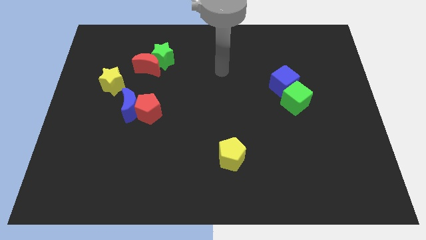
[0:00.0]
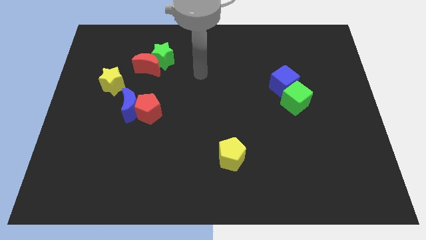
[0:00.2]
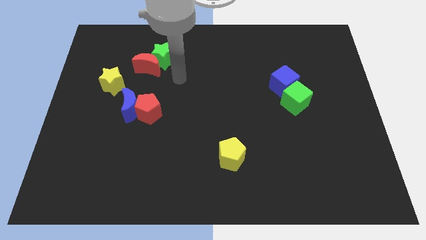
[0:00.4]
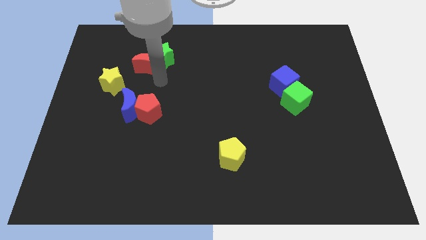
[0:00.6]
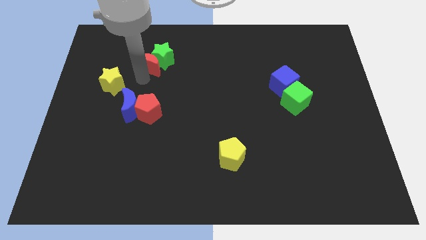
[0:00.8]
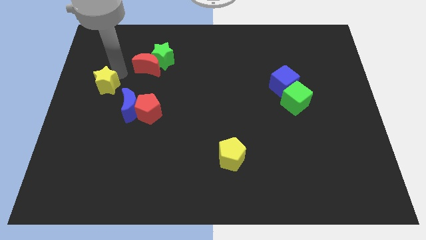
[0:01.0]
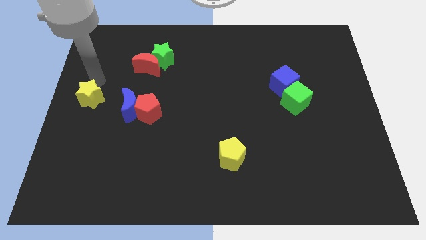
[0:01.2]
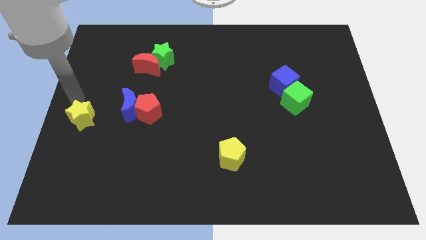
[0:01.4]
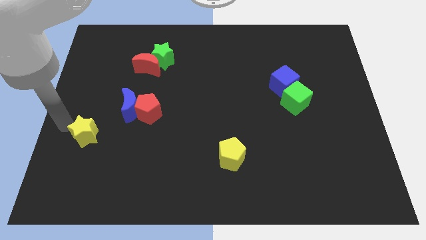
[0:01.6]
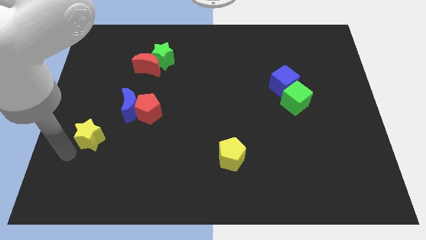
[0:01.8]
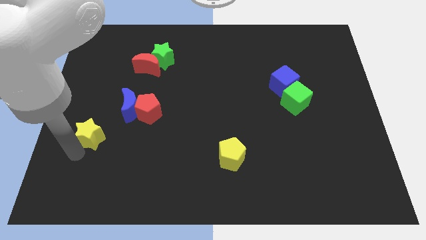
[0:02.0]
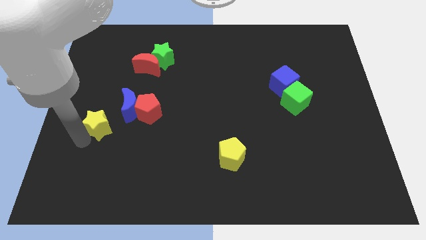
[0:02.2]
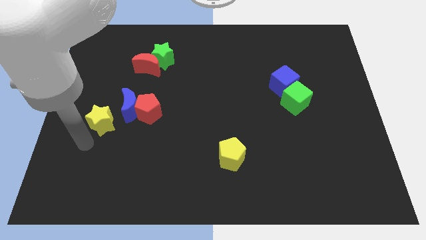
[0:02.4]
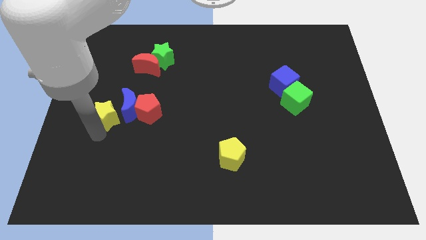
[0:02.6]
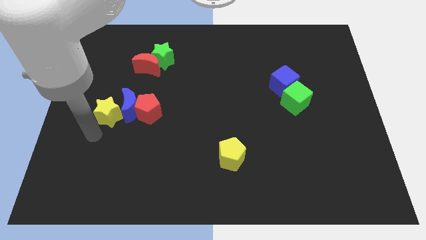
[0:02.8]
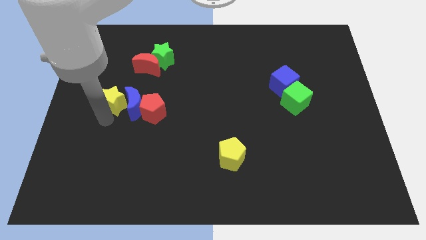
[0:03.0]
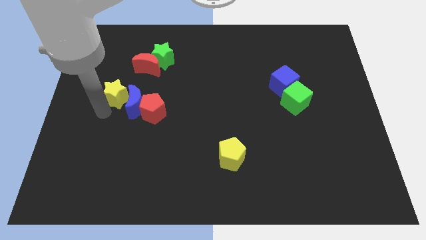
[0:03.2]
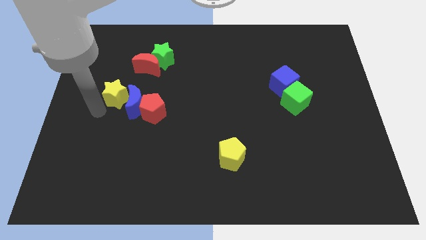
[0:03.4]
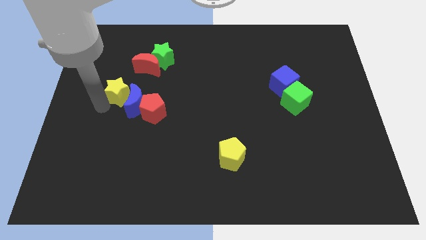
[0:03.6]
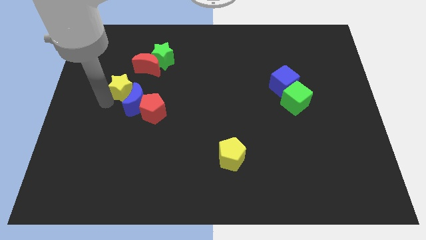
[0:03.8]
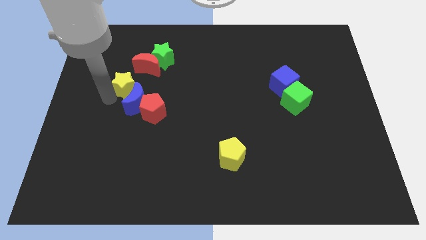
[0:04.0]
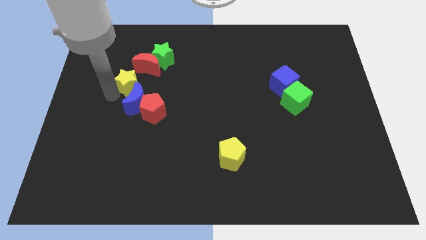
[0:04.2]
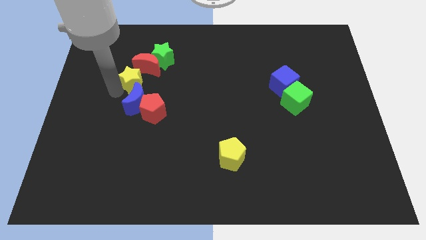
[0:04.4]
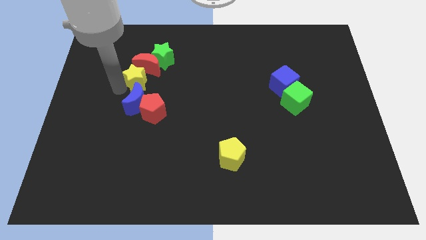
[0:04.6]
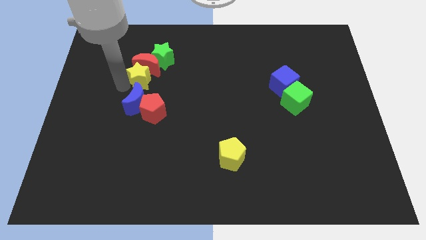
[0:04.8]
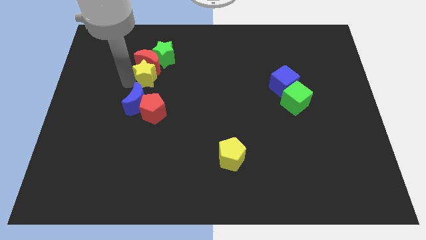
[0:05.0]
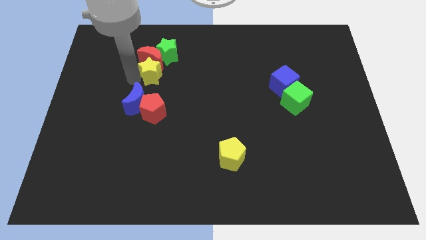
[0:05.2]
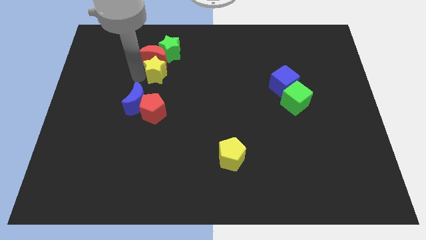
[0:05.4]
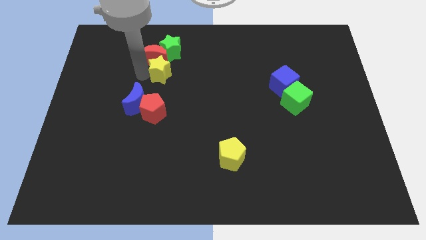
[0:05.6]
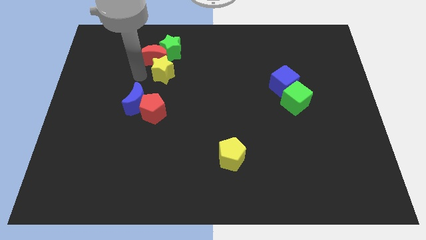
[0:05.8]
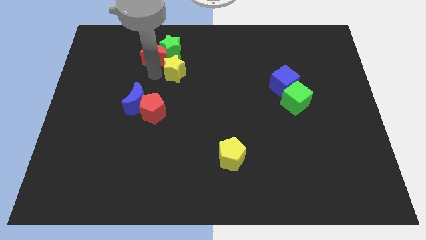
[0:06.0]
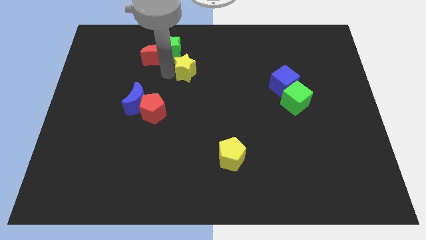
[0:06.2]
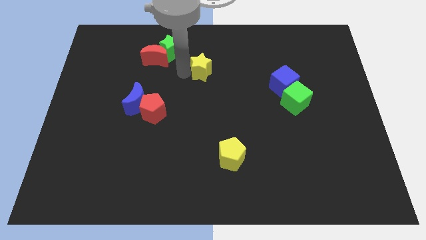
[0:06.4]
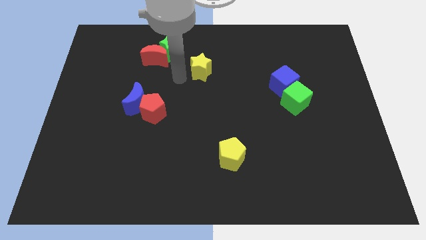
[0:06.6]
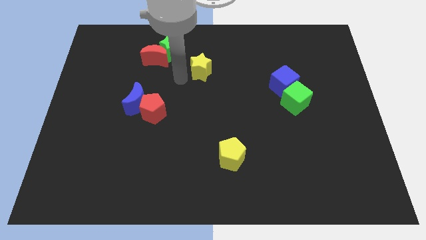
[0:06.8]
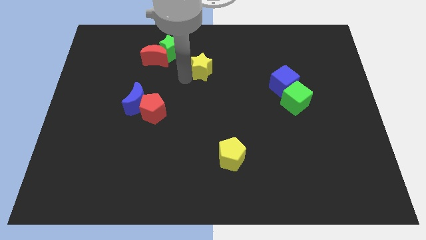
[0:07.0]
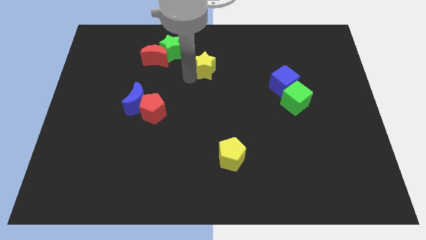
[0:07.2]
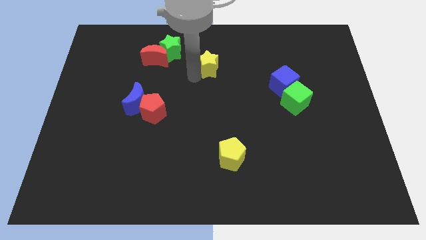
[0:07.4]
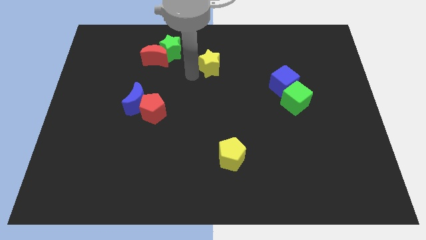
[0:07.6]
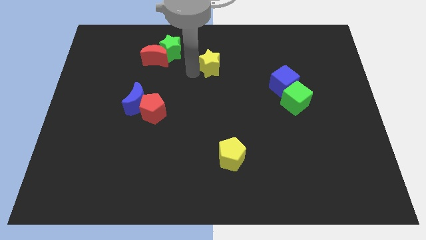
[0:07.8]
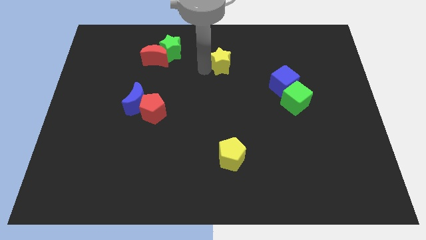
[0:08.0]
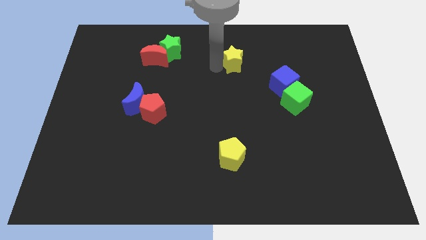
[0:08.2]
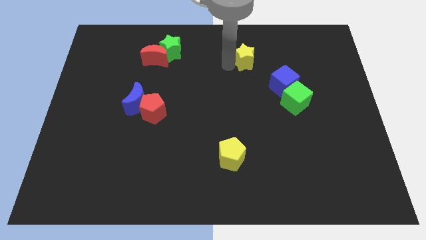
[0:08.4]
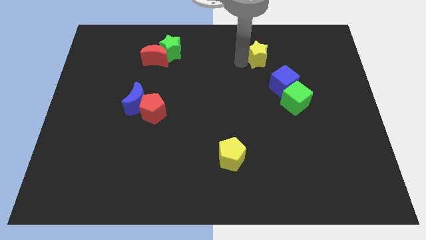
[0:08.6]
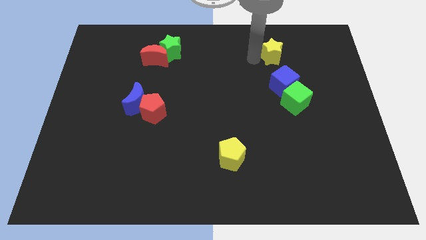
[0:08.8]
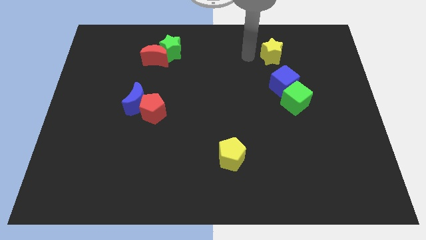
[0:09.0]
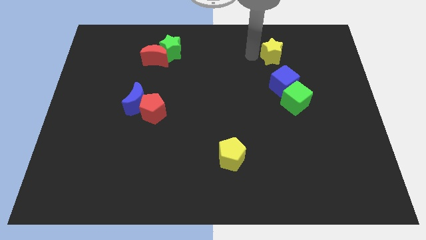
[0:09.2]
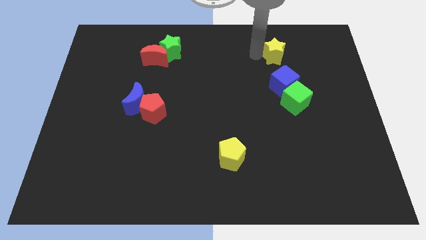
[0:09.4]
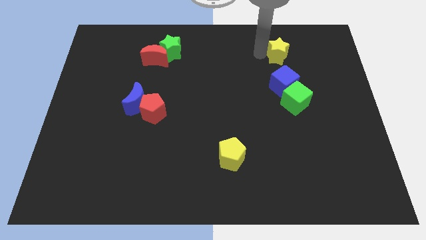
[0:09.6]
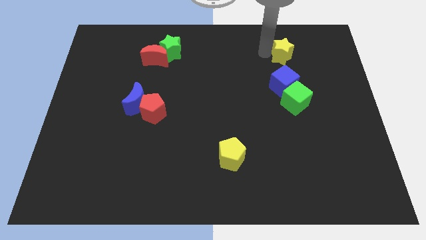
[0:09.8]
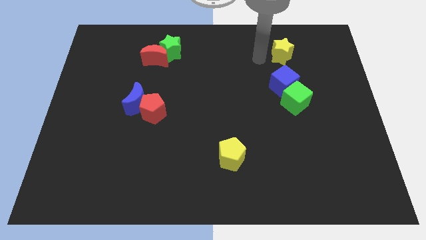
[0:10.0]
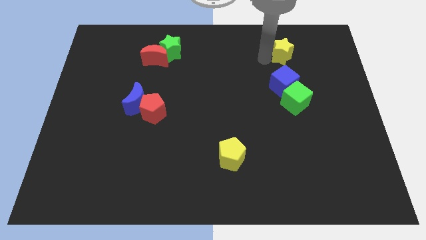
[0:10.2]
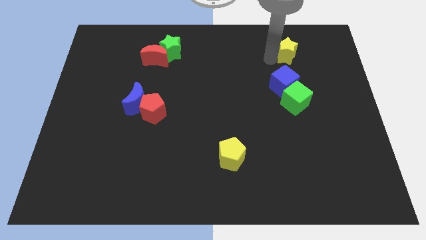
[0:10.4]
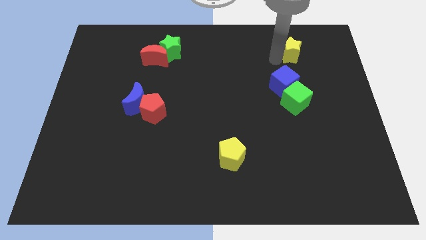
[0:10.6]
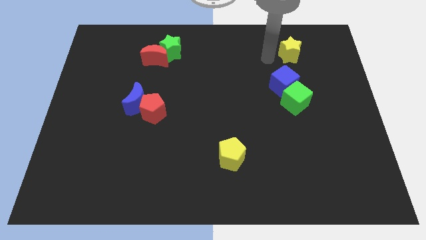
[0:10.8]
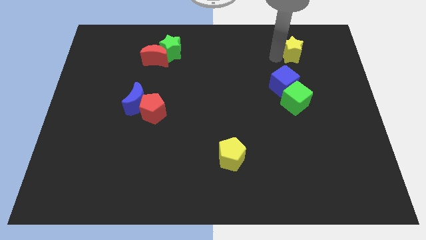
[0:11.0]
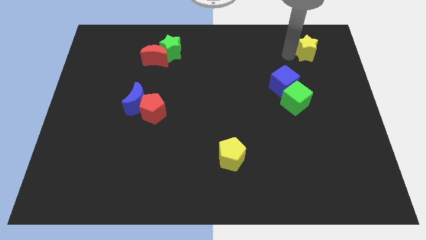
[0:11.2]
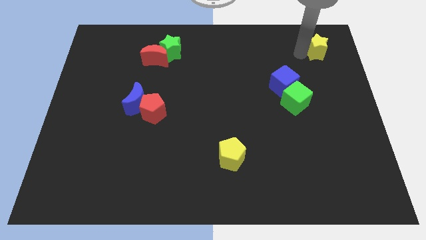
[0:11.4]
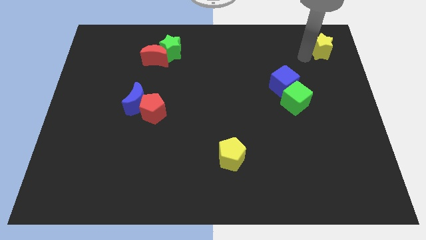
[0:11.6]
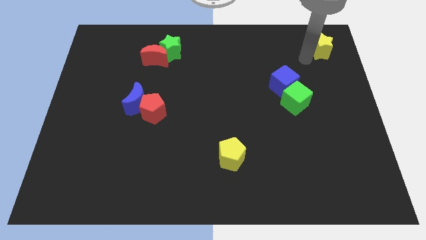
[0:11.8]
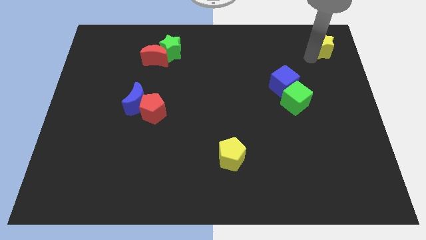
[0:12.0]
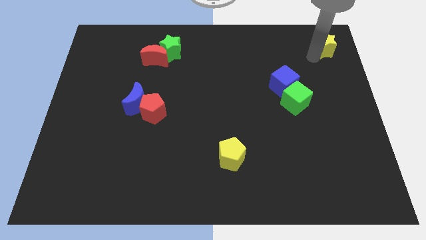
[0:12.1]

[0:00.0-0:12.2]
slide the yellow star to the top right corner
